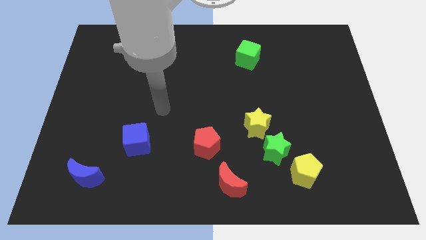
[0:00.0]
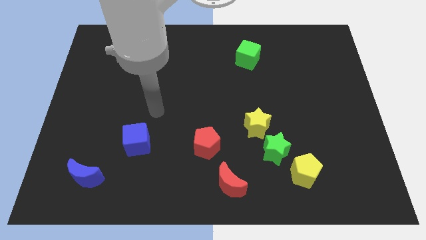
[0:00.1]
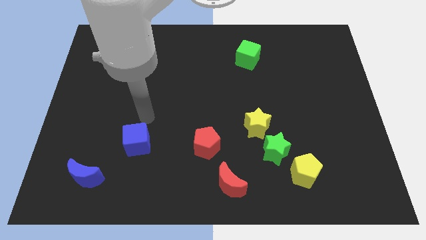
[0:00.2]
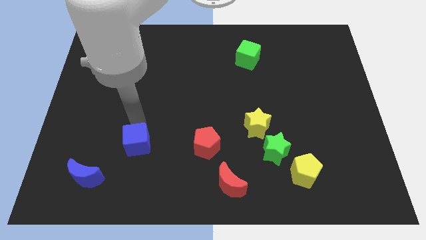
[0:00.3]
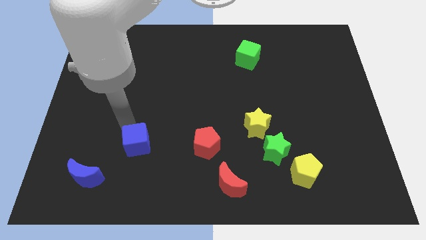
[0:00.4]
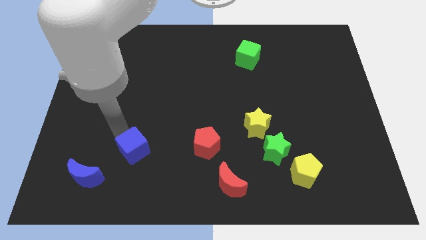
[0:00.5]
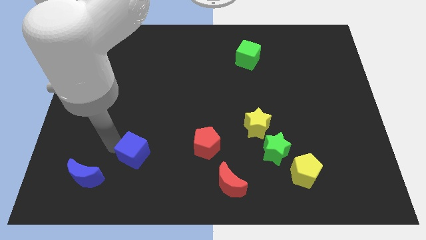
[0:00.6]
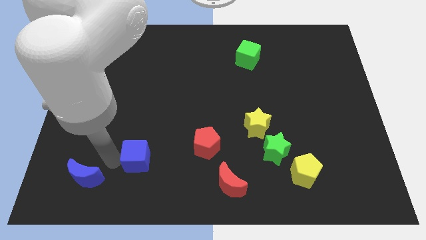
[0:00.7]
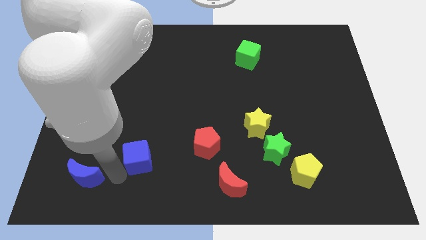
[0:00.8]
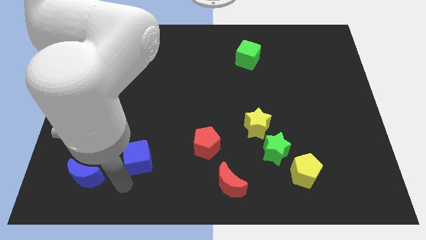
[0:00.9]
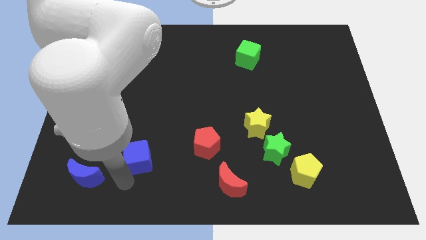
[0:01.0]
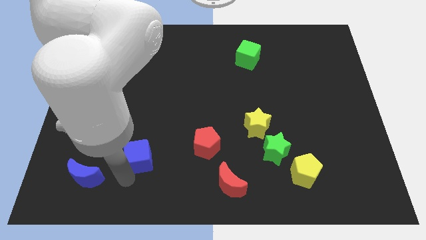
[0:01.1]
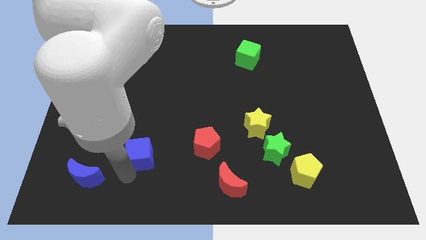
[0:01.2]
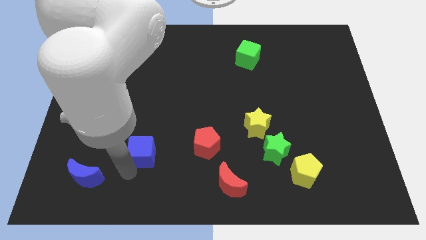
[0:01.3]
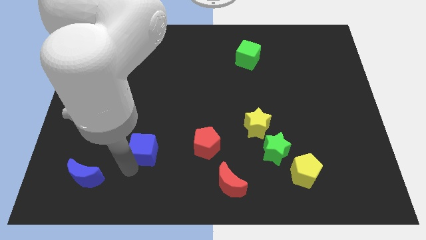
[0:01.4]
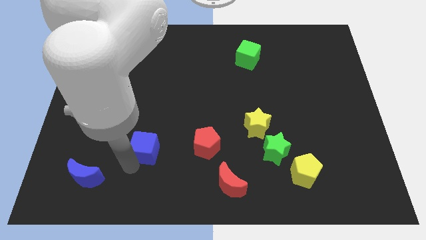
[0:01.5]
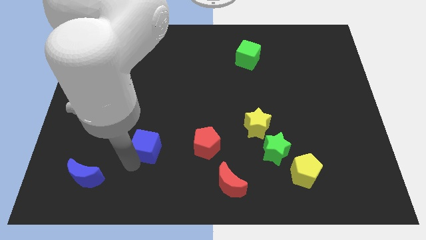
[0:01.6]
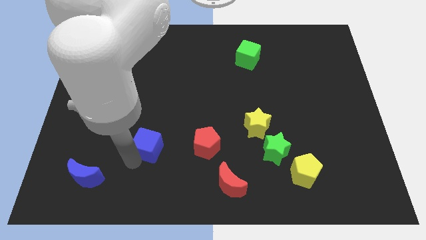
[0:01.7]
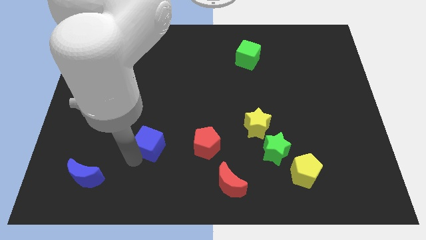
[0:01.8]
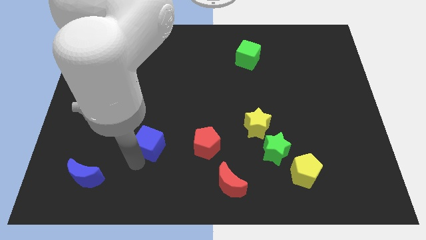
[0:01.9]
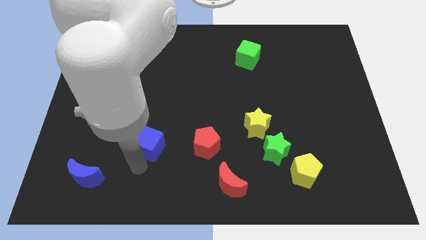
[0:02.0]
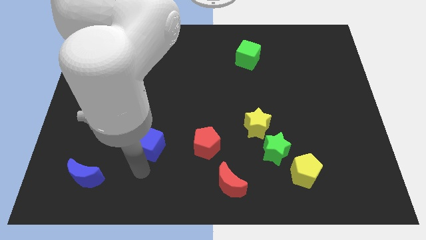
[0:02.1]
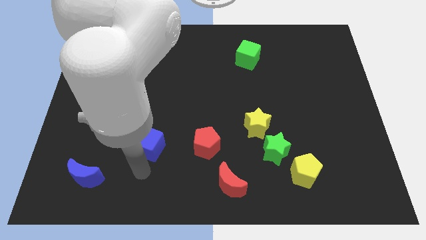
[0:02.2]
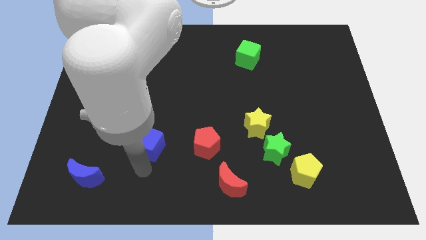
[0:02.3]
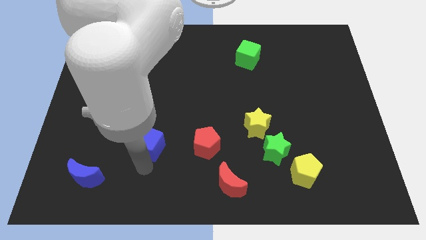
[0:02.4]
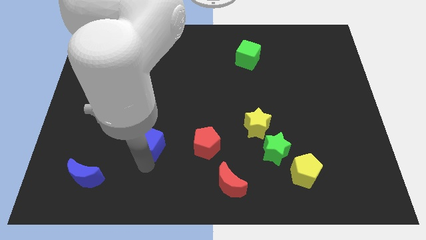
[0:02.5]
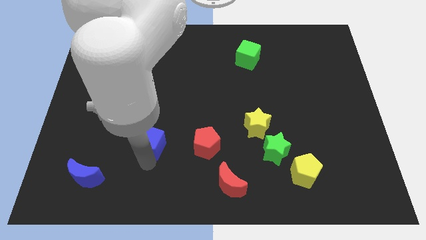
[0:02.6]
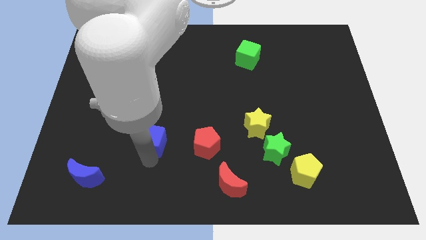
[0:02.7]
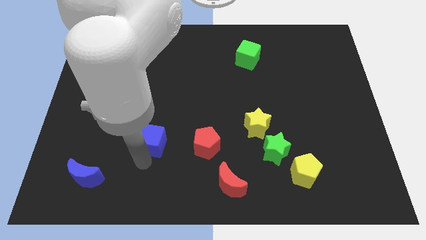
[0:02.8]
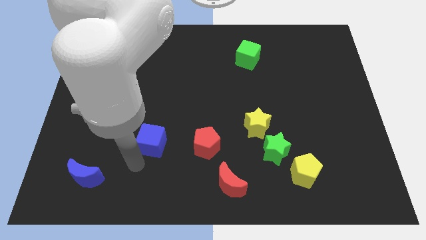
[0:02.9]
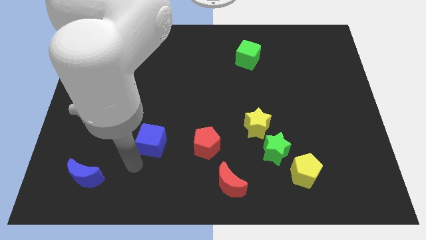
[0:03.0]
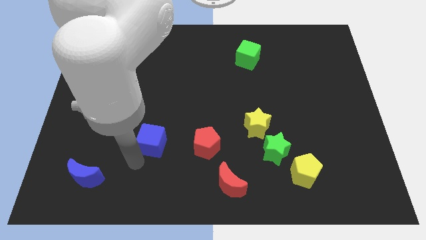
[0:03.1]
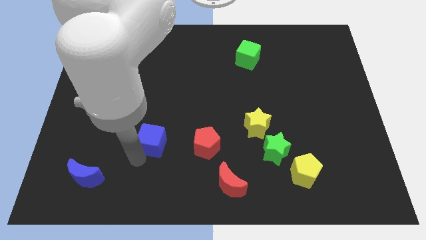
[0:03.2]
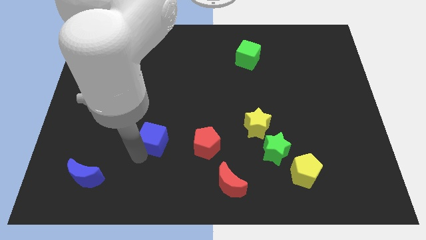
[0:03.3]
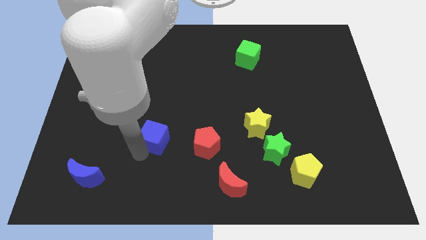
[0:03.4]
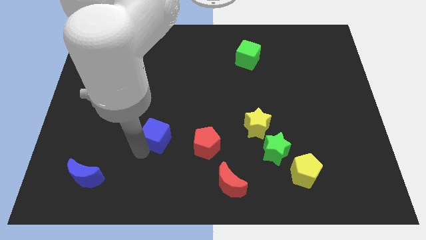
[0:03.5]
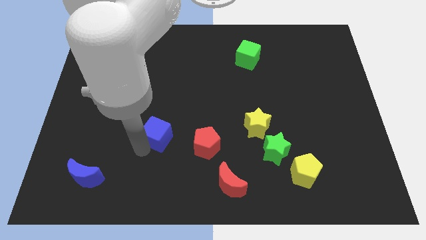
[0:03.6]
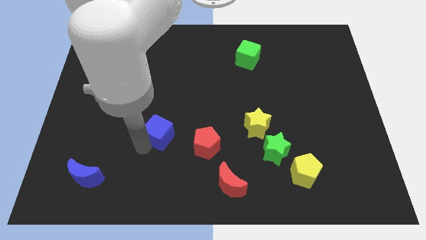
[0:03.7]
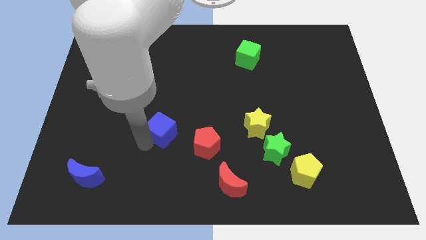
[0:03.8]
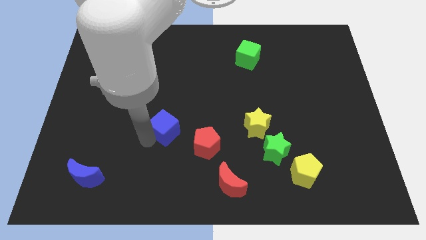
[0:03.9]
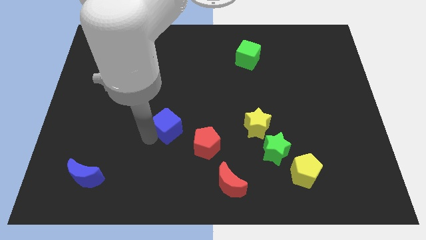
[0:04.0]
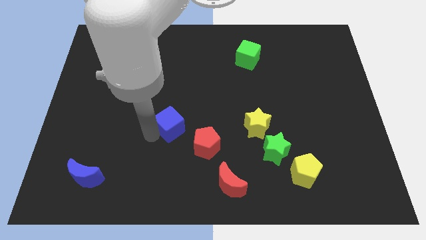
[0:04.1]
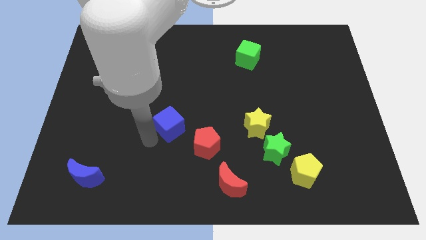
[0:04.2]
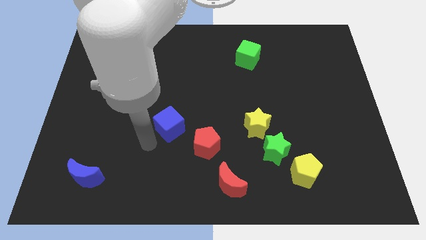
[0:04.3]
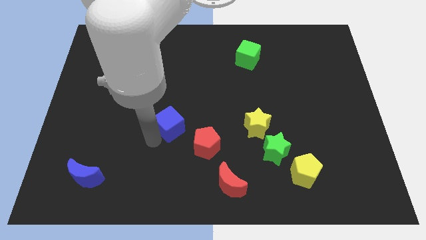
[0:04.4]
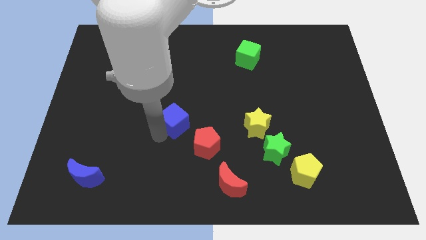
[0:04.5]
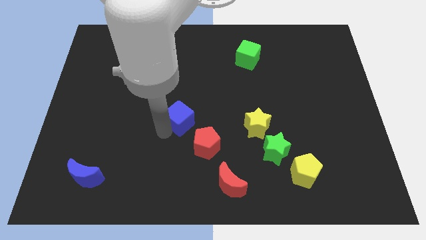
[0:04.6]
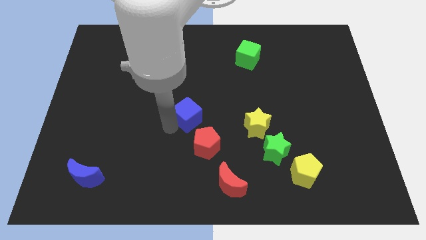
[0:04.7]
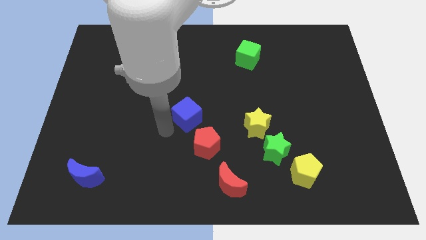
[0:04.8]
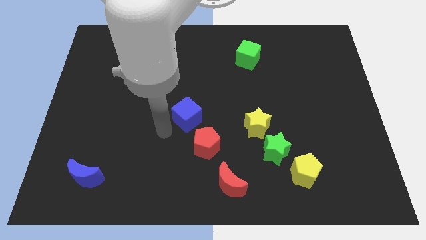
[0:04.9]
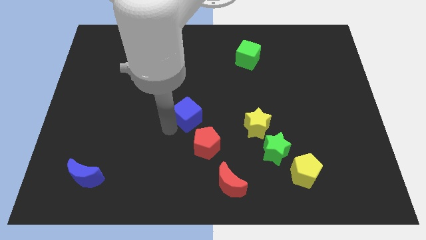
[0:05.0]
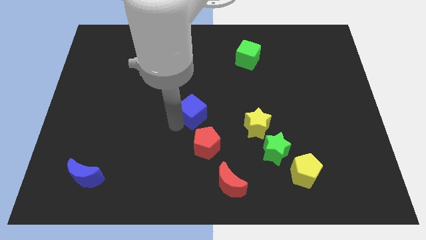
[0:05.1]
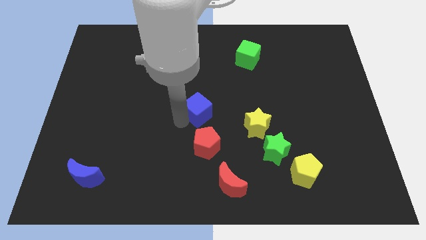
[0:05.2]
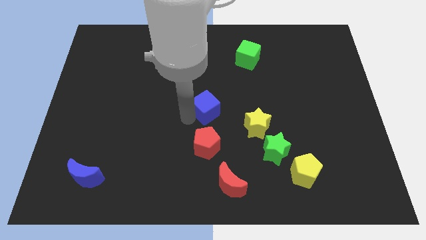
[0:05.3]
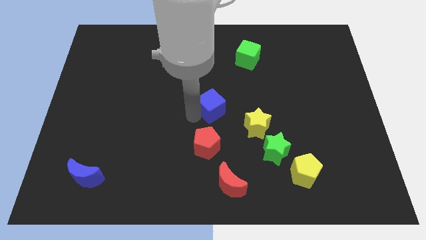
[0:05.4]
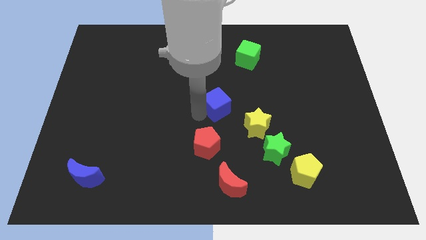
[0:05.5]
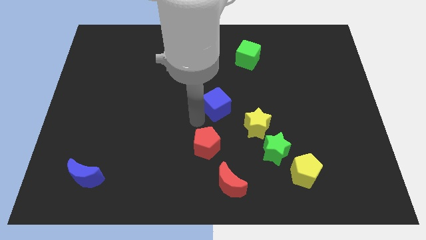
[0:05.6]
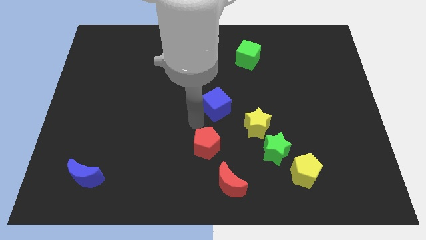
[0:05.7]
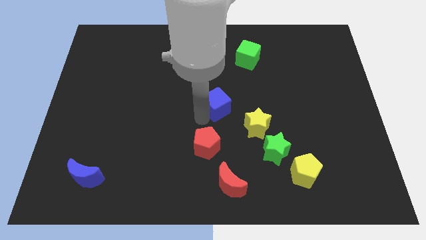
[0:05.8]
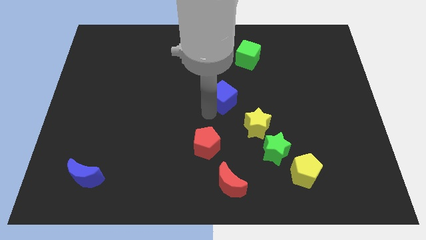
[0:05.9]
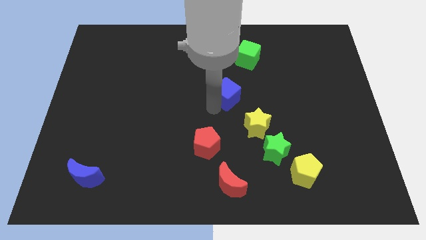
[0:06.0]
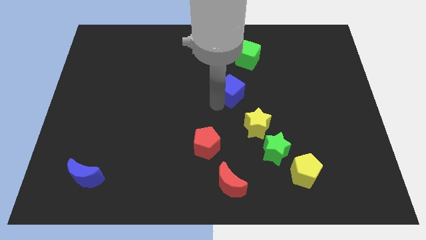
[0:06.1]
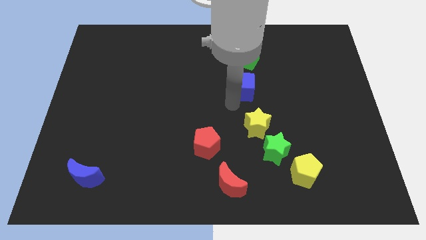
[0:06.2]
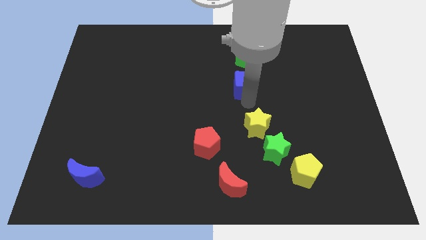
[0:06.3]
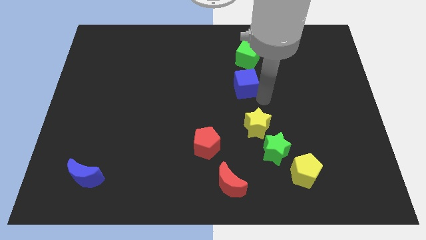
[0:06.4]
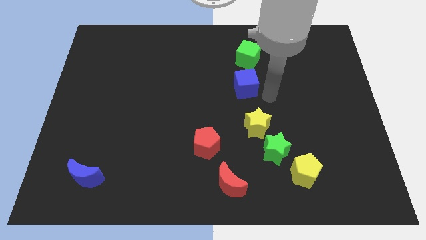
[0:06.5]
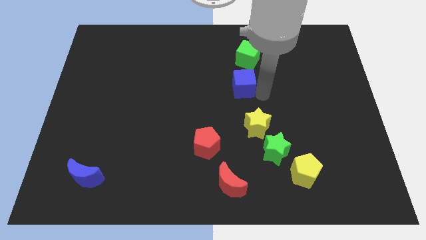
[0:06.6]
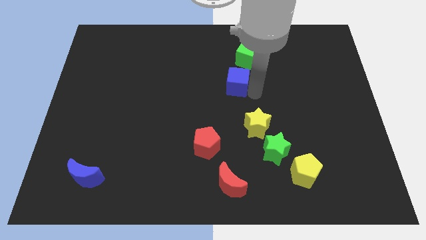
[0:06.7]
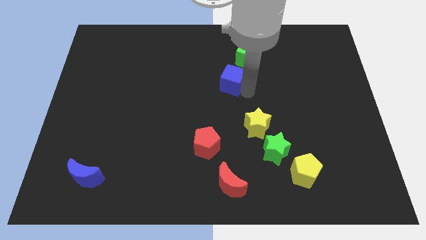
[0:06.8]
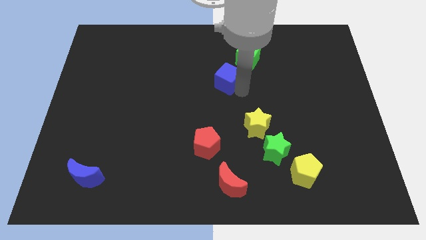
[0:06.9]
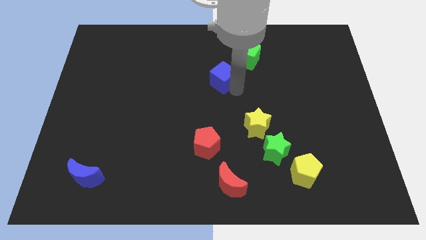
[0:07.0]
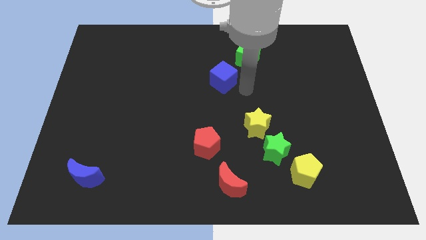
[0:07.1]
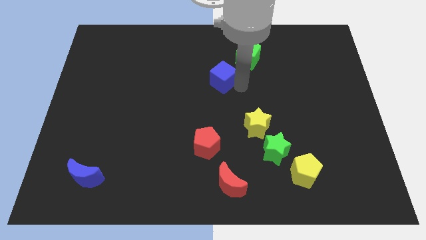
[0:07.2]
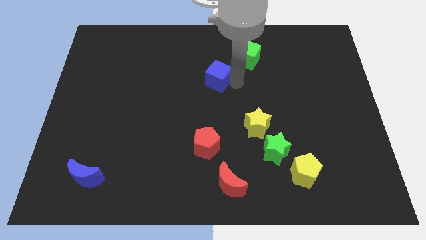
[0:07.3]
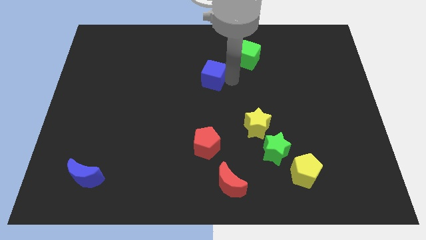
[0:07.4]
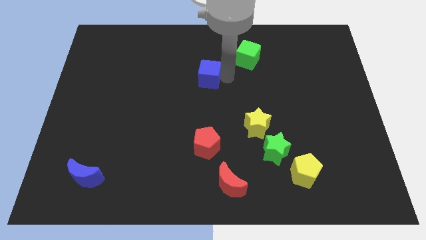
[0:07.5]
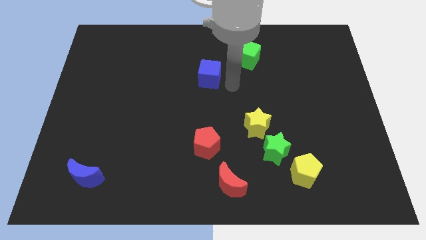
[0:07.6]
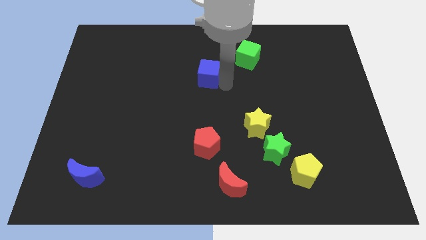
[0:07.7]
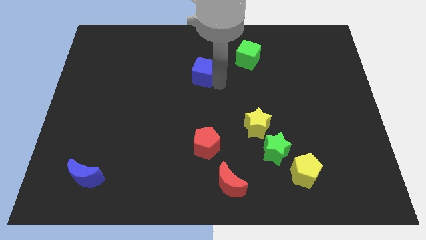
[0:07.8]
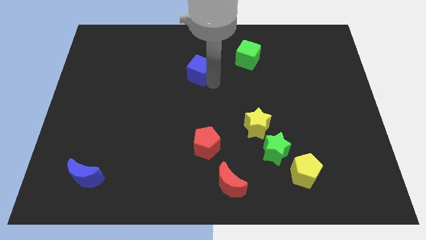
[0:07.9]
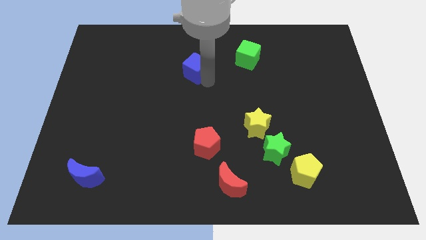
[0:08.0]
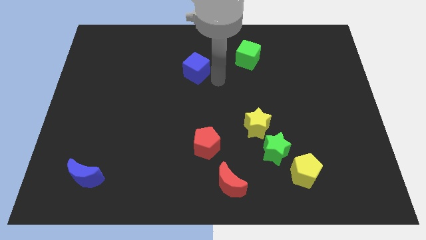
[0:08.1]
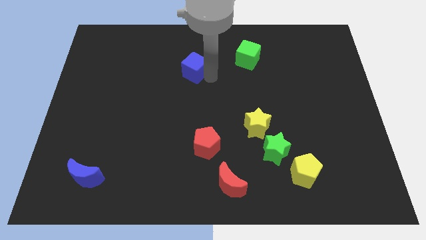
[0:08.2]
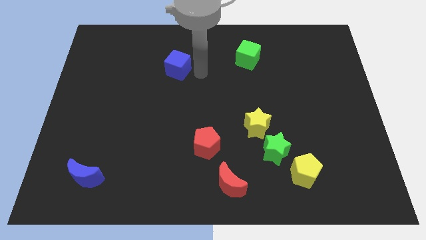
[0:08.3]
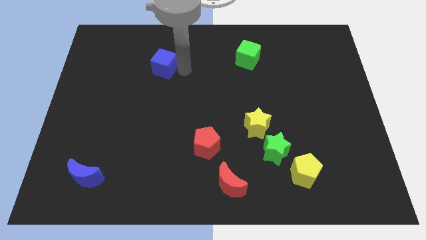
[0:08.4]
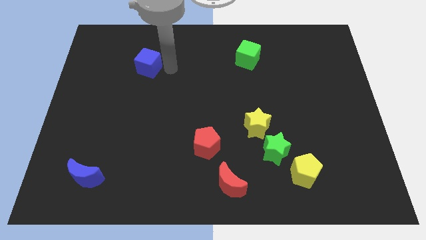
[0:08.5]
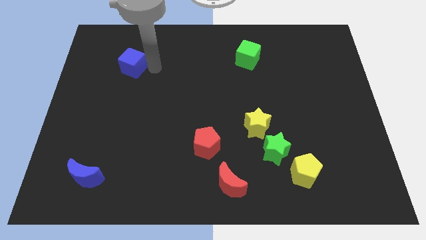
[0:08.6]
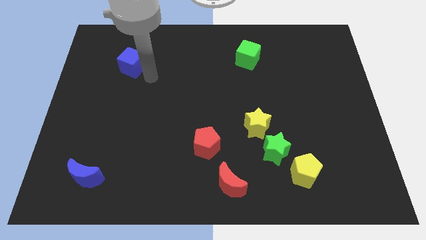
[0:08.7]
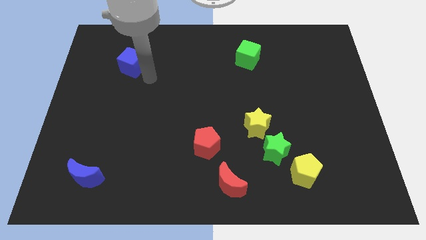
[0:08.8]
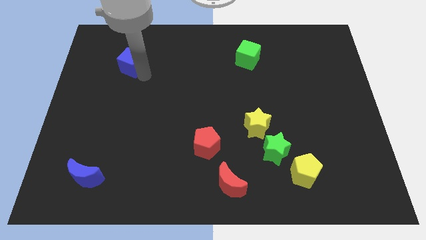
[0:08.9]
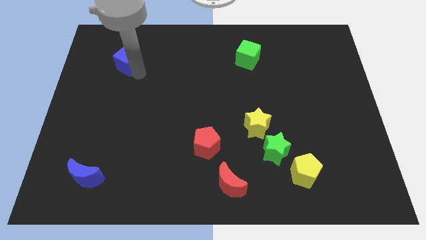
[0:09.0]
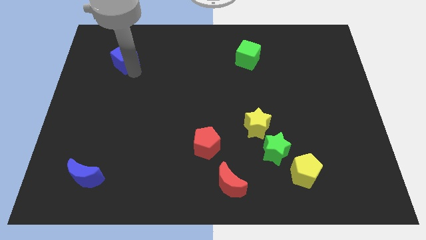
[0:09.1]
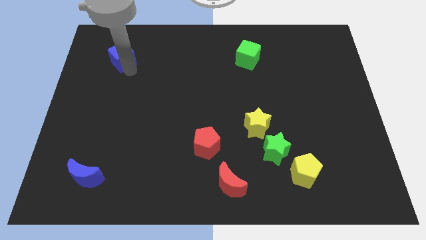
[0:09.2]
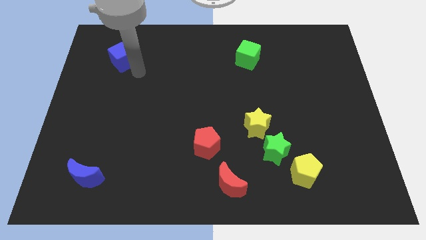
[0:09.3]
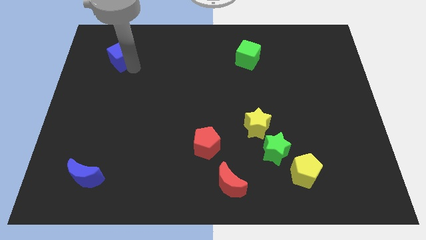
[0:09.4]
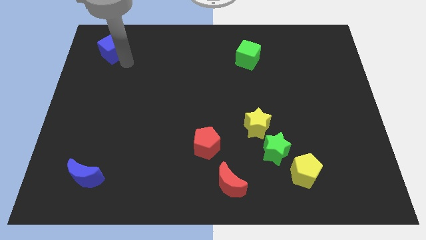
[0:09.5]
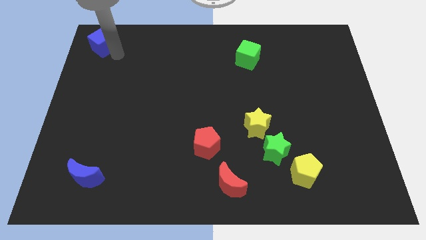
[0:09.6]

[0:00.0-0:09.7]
push the blue cube to the upper left corner
